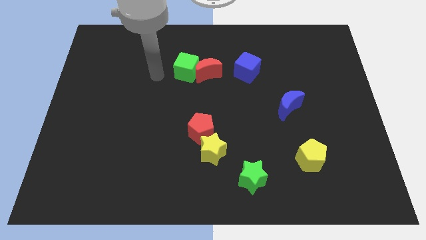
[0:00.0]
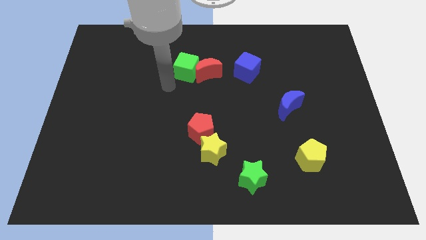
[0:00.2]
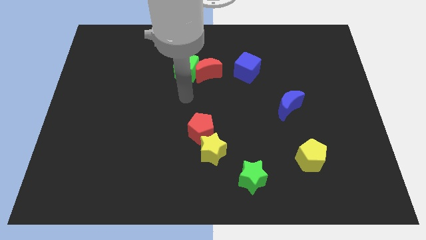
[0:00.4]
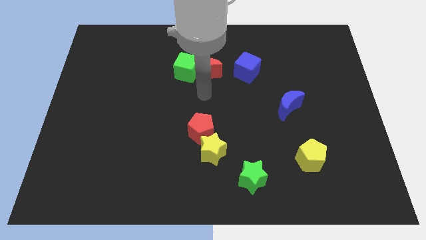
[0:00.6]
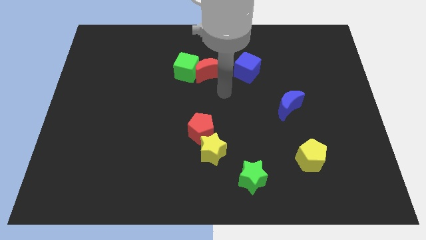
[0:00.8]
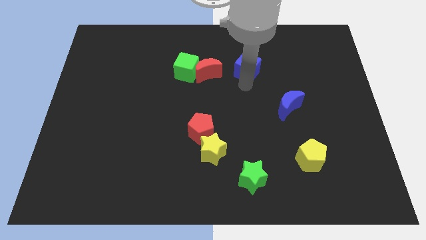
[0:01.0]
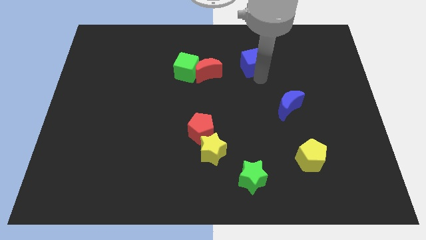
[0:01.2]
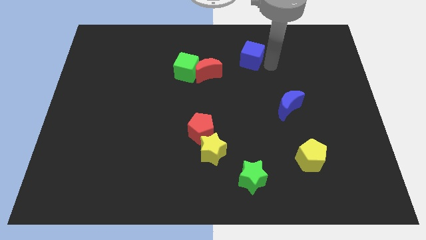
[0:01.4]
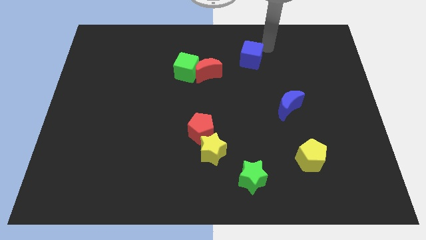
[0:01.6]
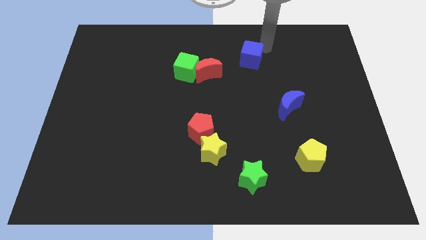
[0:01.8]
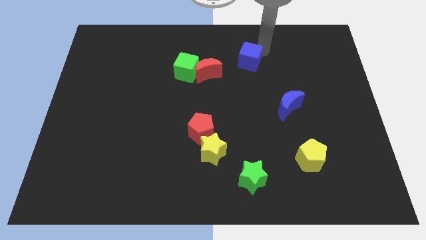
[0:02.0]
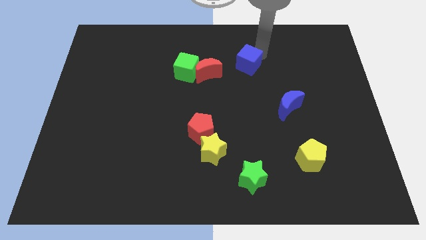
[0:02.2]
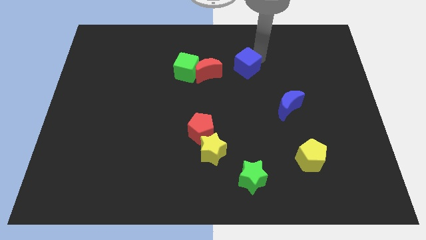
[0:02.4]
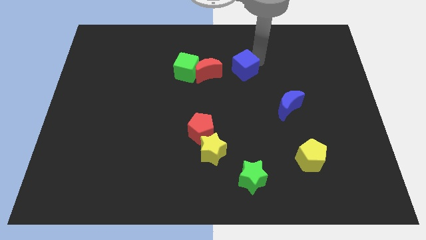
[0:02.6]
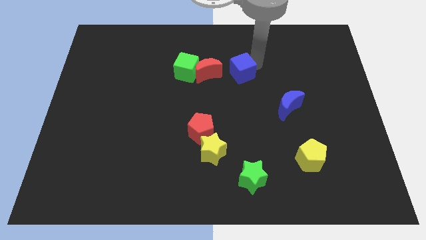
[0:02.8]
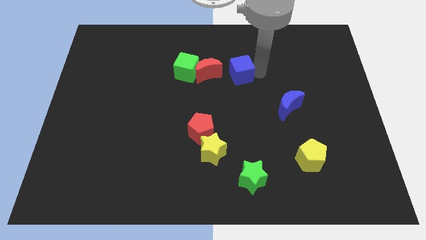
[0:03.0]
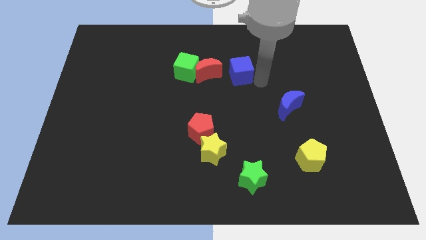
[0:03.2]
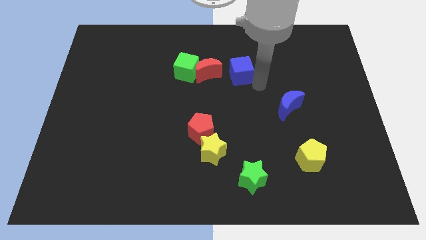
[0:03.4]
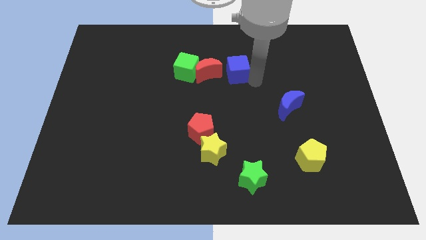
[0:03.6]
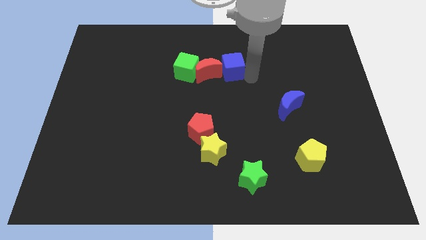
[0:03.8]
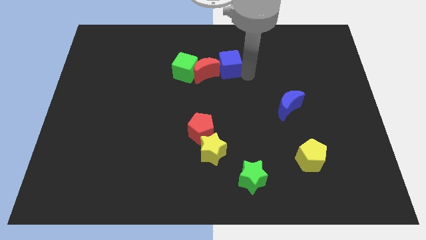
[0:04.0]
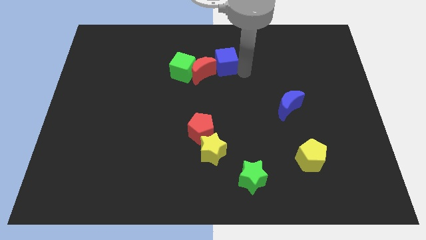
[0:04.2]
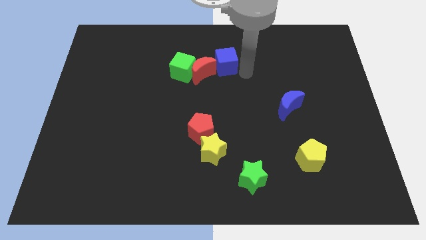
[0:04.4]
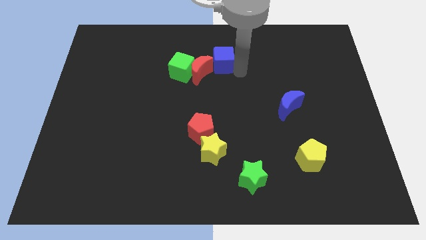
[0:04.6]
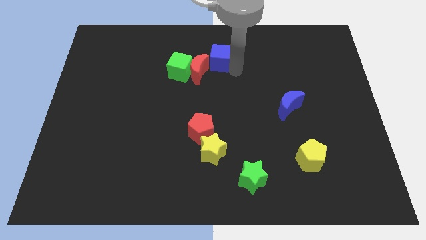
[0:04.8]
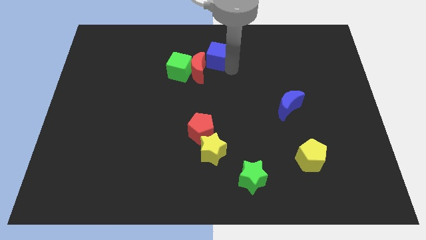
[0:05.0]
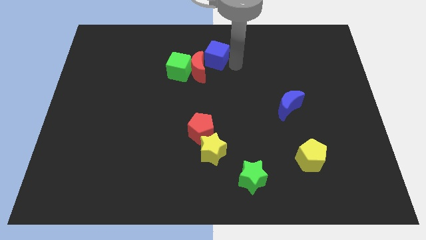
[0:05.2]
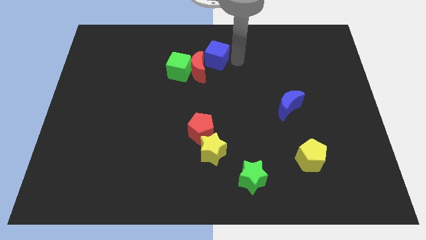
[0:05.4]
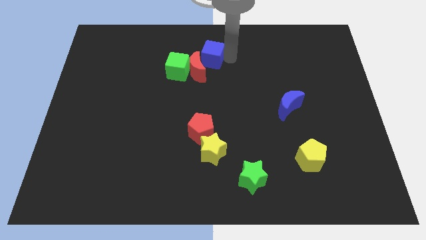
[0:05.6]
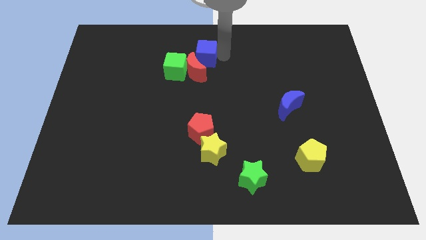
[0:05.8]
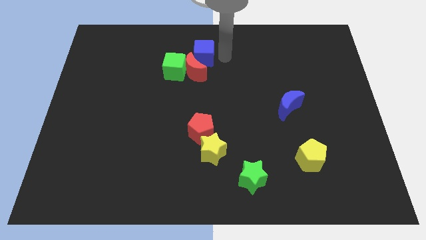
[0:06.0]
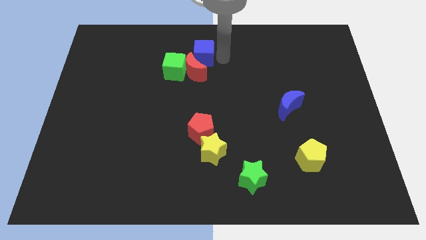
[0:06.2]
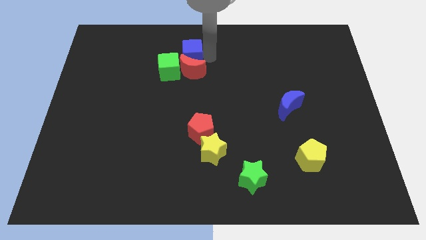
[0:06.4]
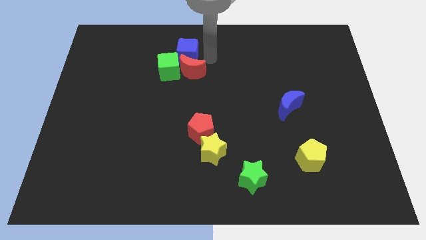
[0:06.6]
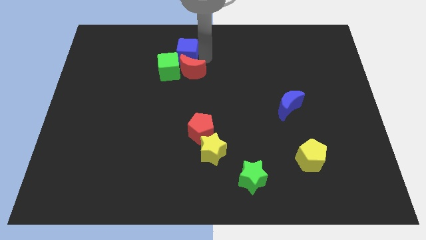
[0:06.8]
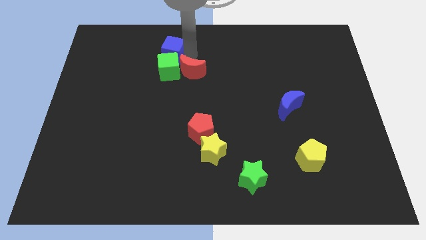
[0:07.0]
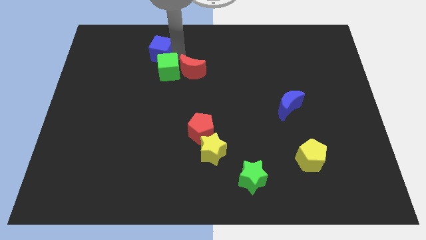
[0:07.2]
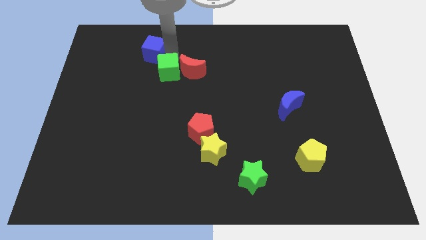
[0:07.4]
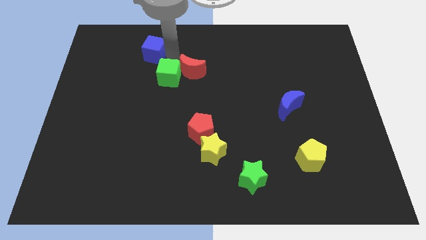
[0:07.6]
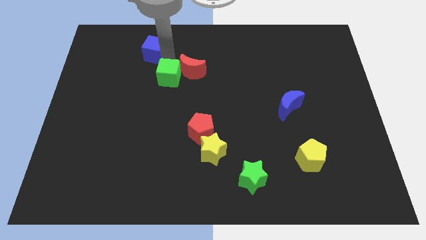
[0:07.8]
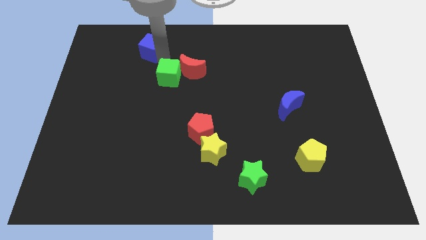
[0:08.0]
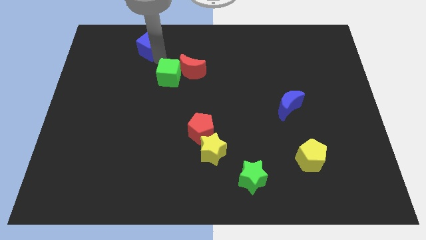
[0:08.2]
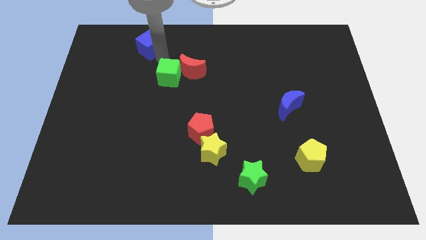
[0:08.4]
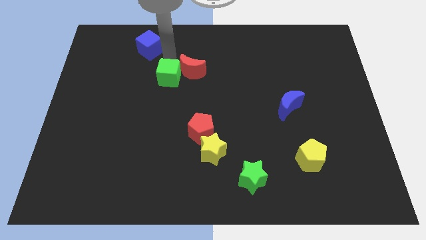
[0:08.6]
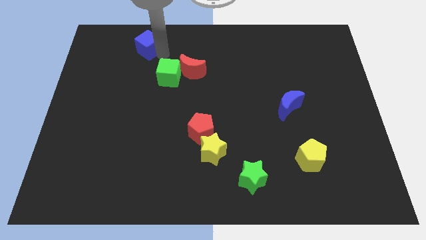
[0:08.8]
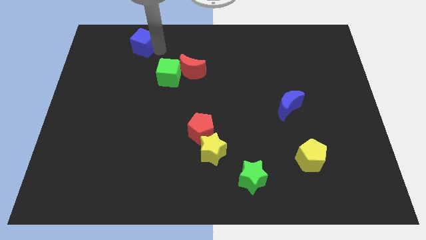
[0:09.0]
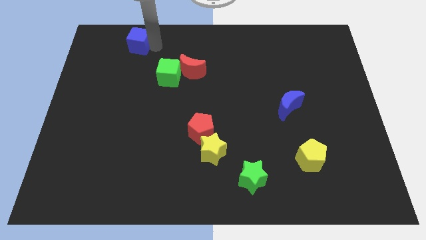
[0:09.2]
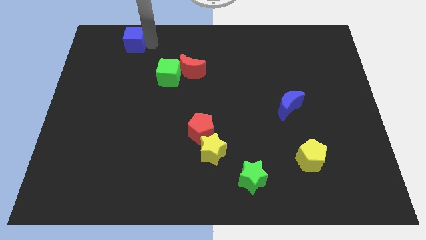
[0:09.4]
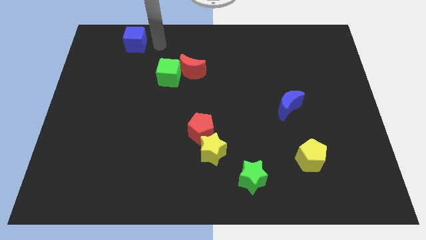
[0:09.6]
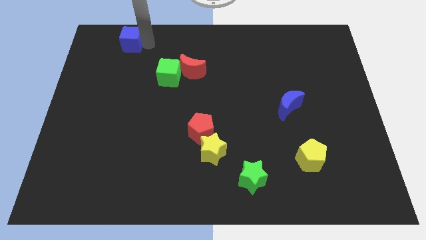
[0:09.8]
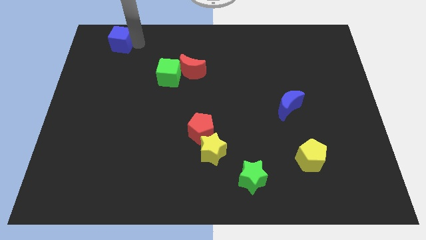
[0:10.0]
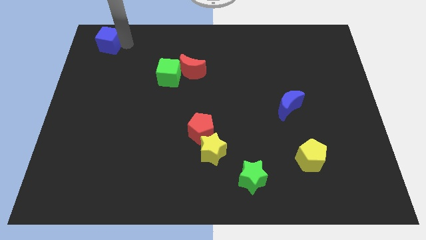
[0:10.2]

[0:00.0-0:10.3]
move the blue cube to the top left of the board

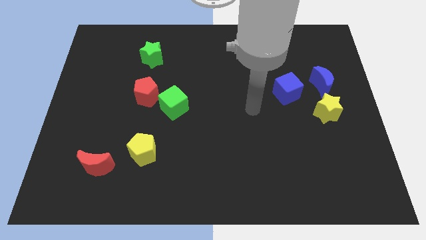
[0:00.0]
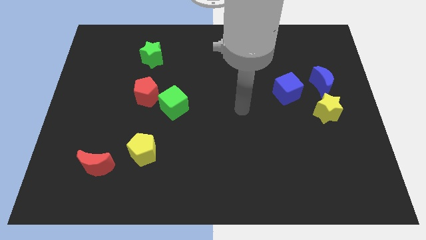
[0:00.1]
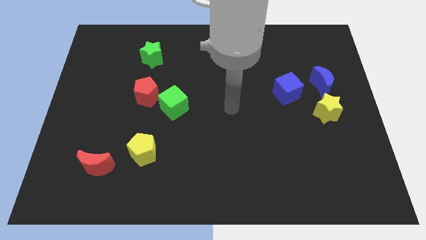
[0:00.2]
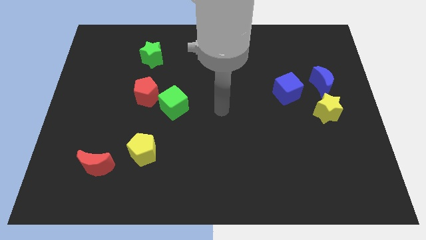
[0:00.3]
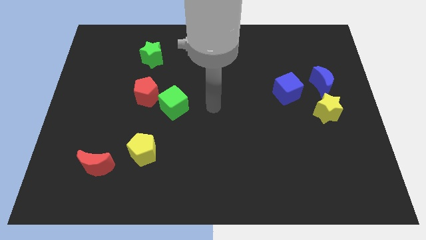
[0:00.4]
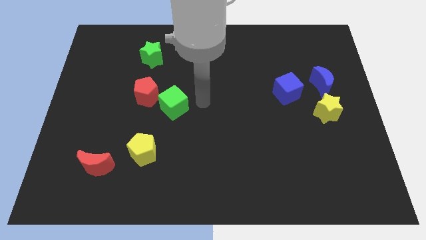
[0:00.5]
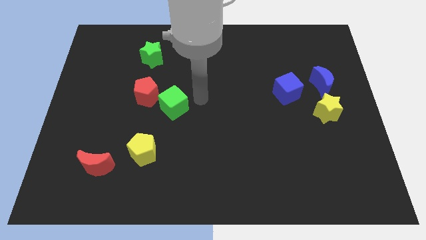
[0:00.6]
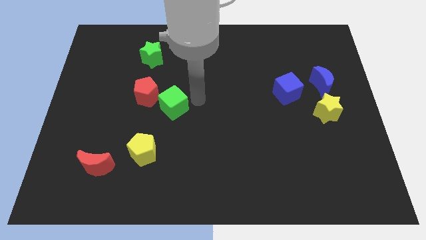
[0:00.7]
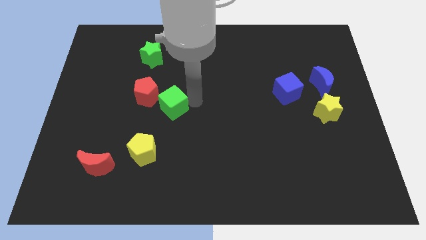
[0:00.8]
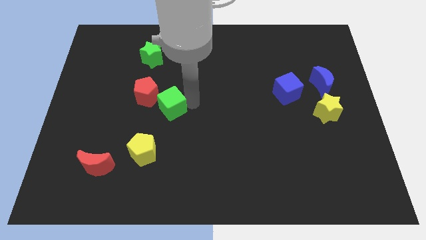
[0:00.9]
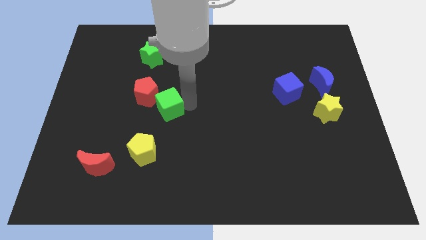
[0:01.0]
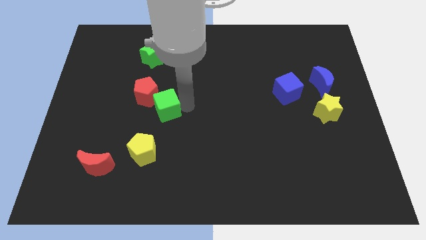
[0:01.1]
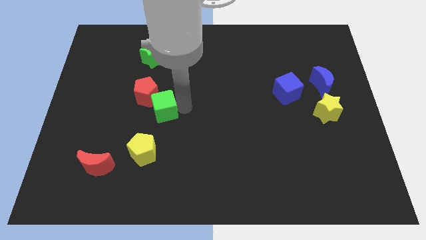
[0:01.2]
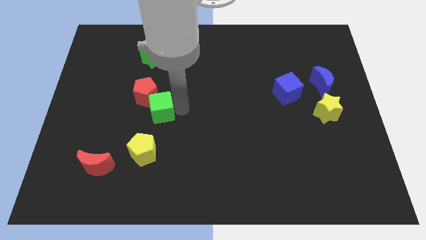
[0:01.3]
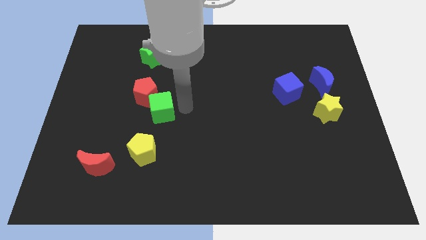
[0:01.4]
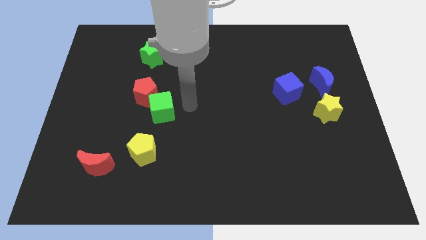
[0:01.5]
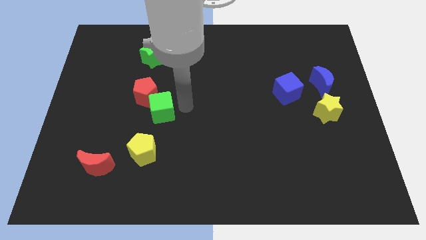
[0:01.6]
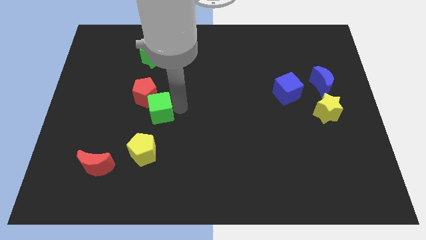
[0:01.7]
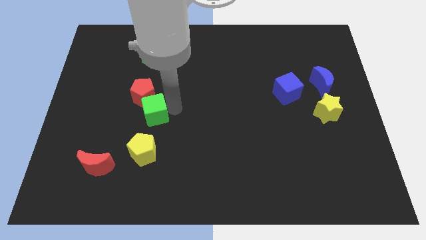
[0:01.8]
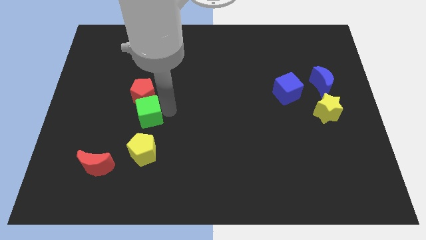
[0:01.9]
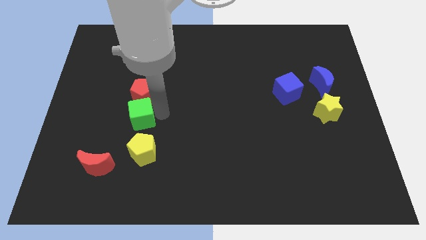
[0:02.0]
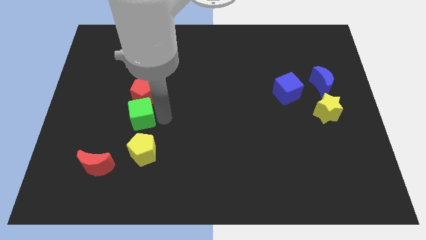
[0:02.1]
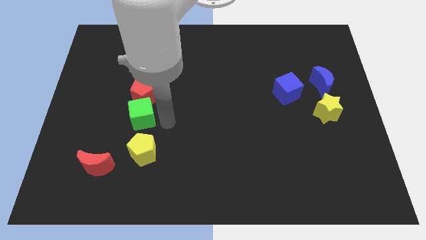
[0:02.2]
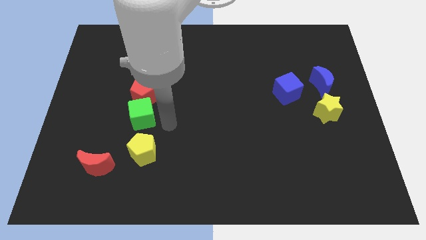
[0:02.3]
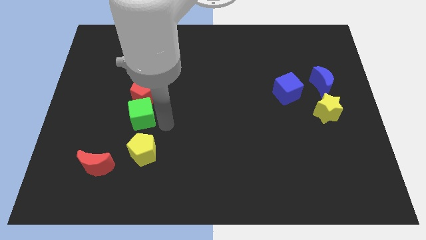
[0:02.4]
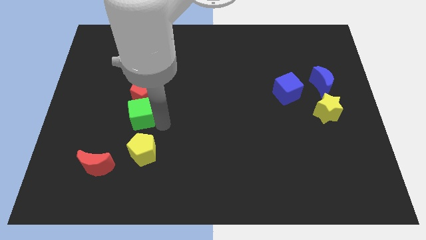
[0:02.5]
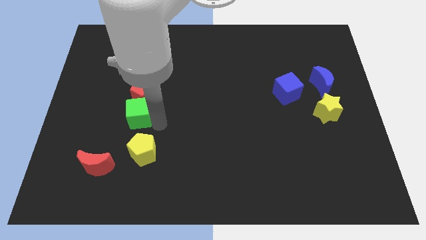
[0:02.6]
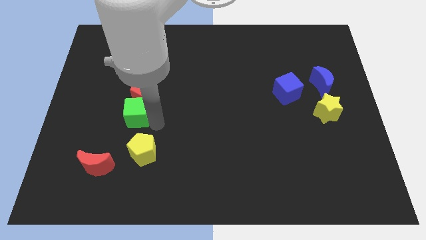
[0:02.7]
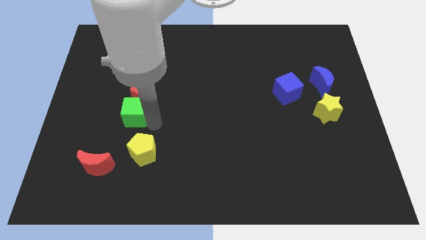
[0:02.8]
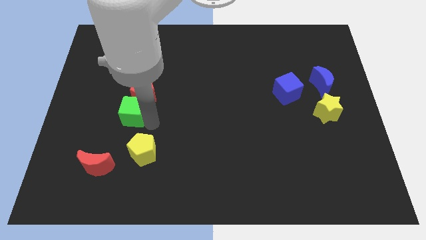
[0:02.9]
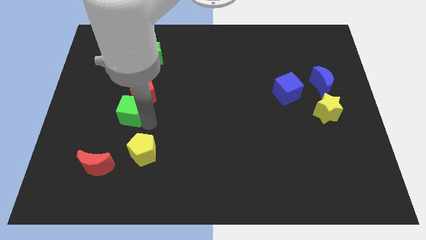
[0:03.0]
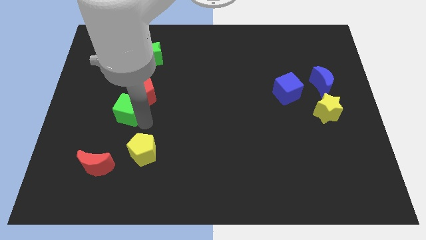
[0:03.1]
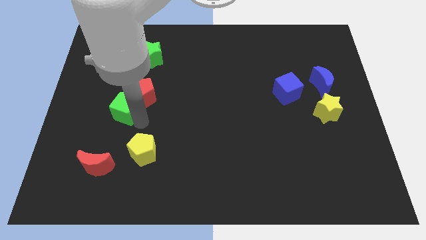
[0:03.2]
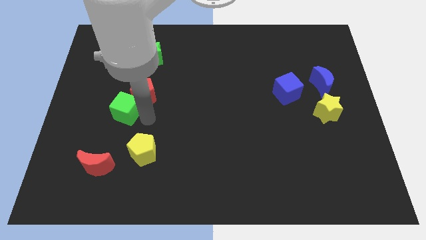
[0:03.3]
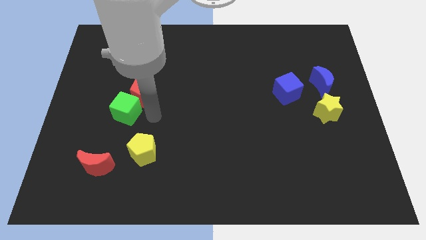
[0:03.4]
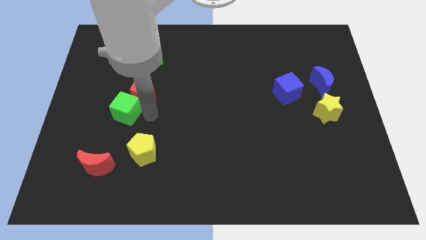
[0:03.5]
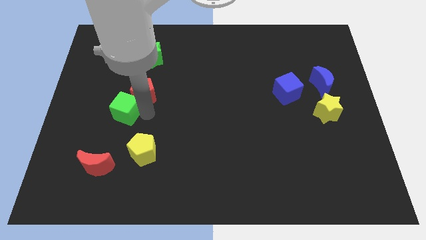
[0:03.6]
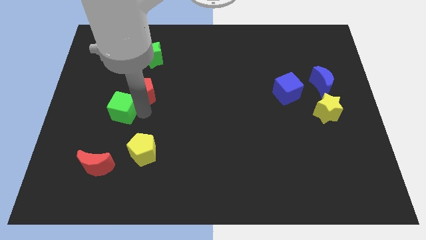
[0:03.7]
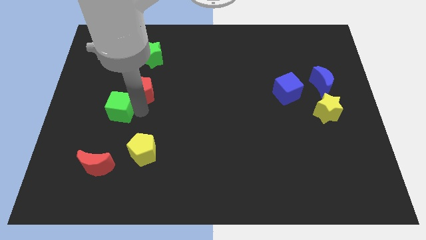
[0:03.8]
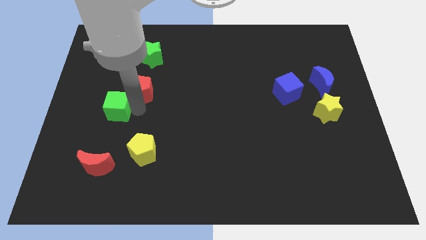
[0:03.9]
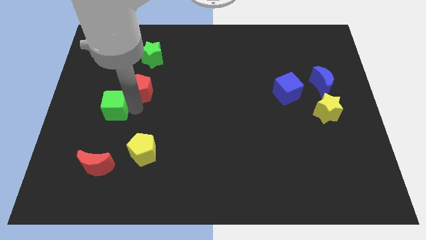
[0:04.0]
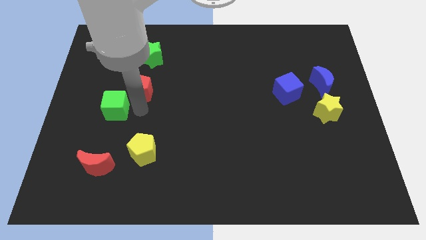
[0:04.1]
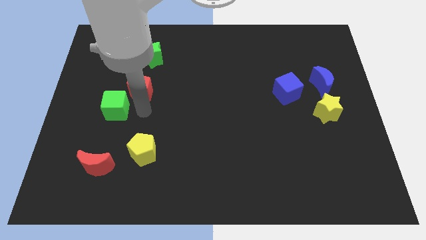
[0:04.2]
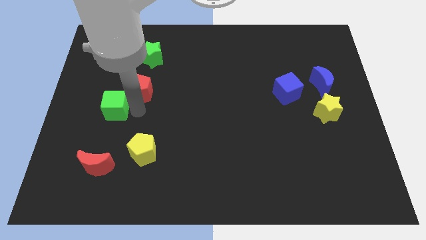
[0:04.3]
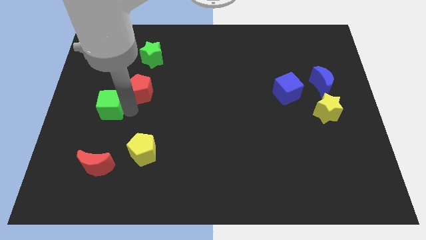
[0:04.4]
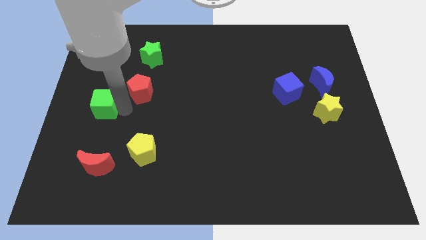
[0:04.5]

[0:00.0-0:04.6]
push the green cube to the center left
